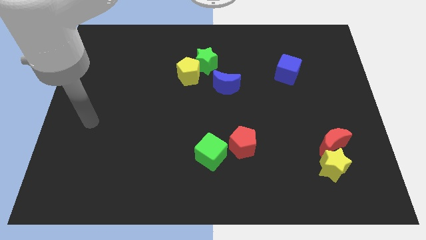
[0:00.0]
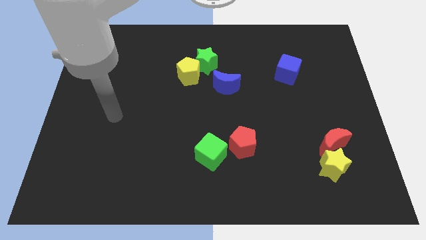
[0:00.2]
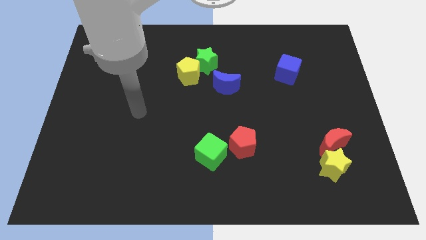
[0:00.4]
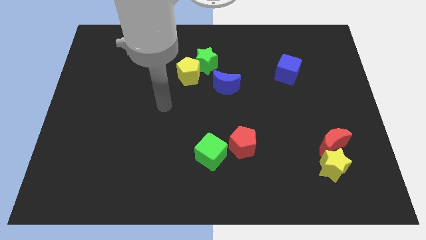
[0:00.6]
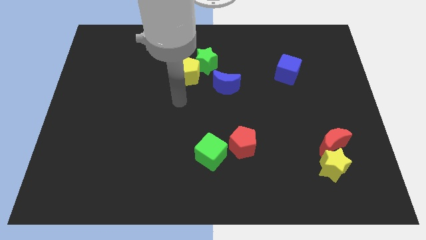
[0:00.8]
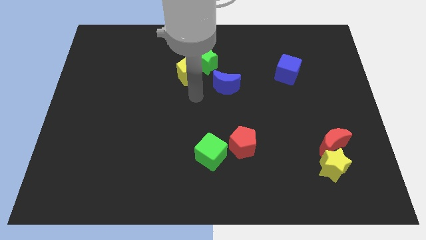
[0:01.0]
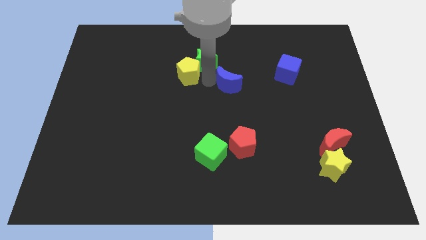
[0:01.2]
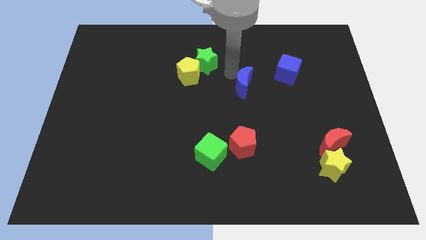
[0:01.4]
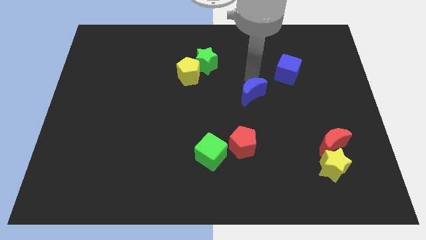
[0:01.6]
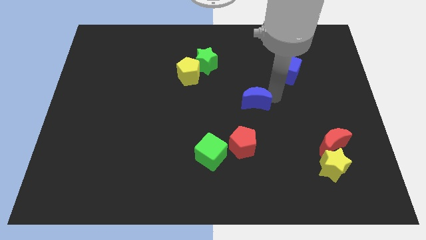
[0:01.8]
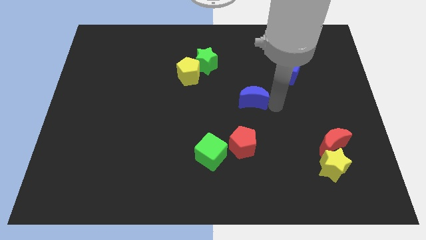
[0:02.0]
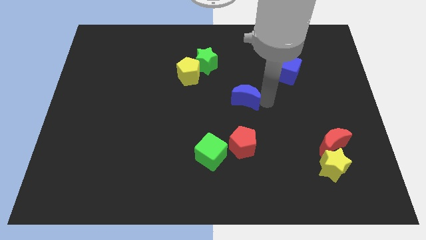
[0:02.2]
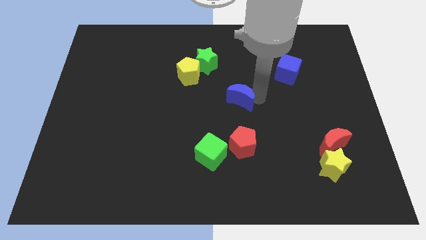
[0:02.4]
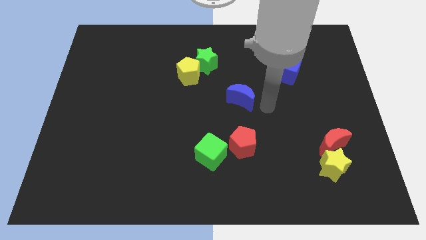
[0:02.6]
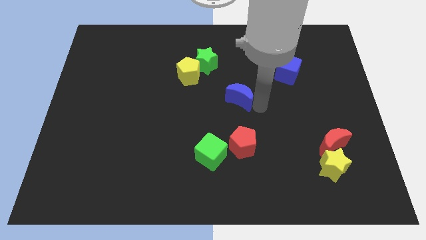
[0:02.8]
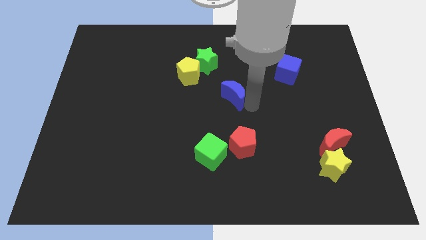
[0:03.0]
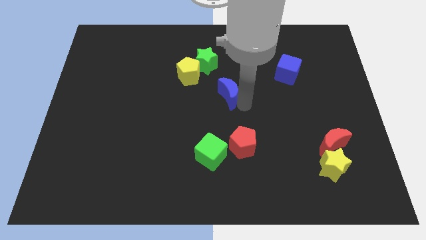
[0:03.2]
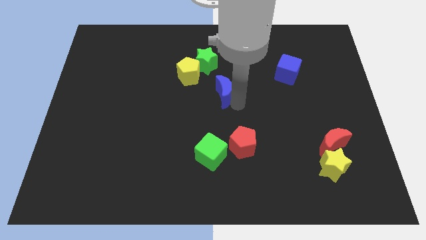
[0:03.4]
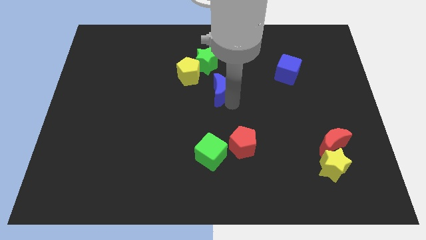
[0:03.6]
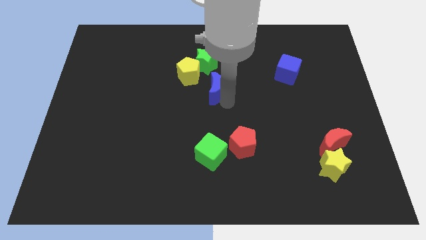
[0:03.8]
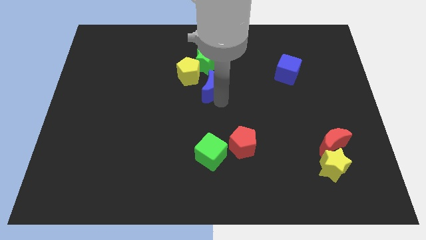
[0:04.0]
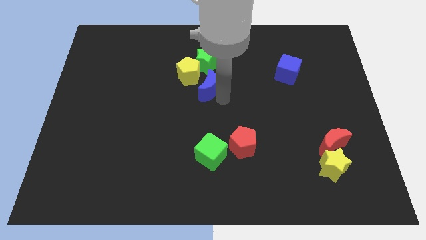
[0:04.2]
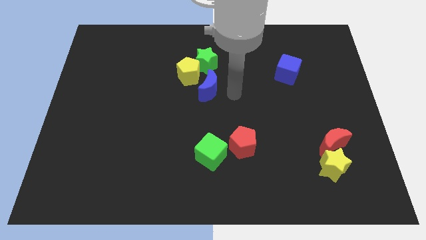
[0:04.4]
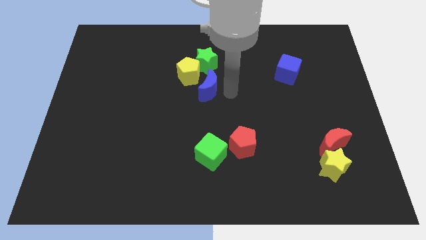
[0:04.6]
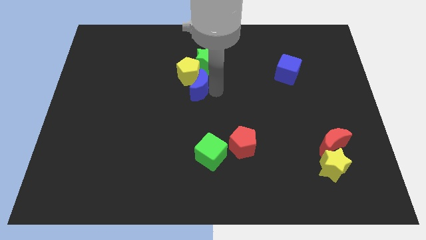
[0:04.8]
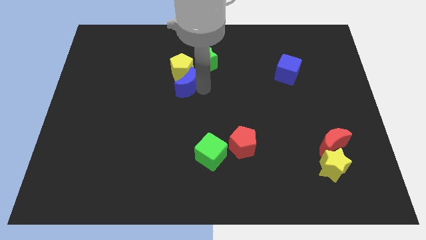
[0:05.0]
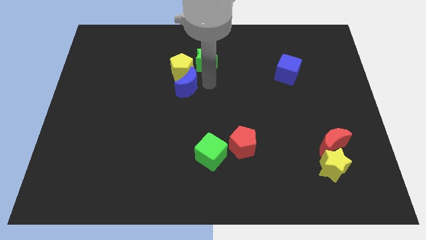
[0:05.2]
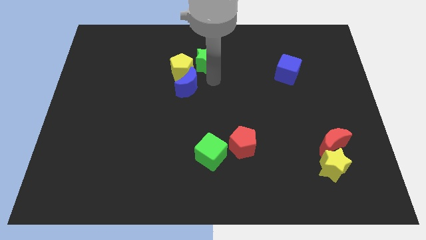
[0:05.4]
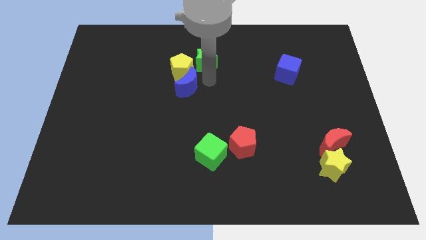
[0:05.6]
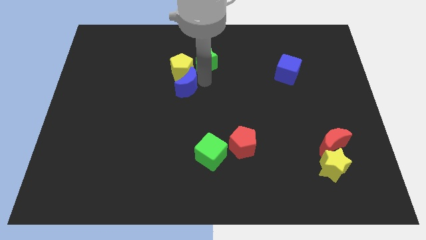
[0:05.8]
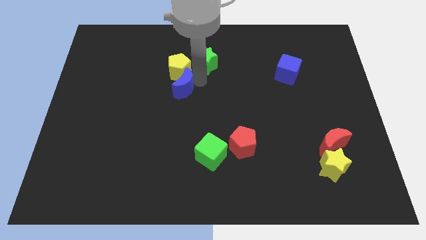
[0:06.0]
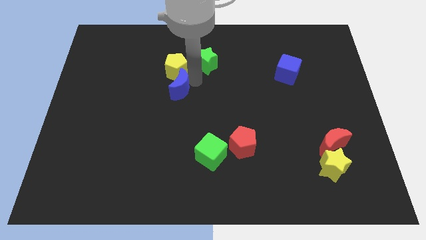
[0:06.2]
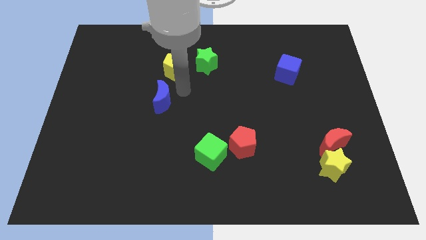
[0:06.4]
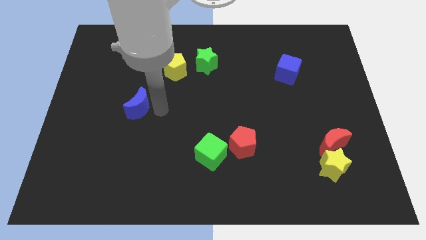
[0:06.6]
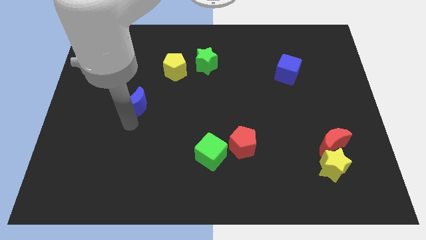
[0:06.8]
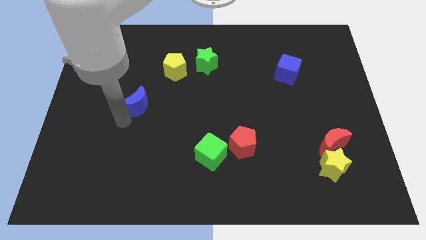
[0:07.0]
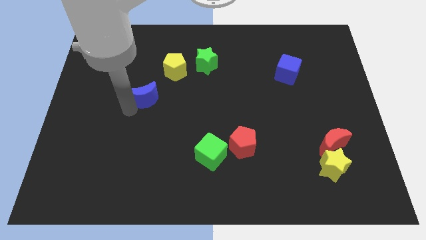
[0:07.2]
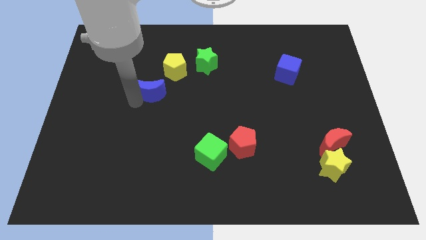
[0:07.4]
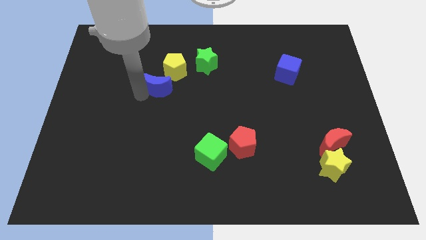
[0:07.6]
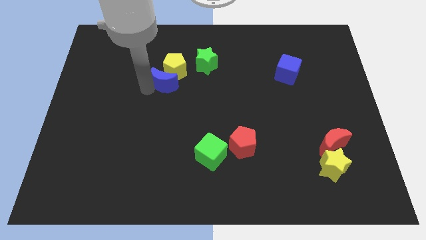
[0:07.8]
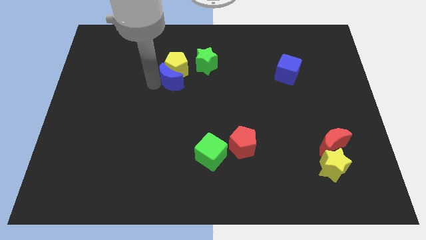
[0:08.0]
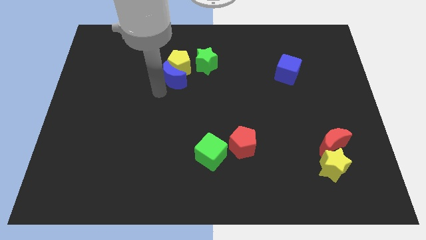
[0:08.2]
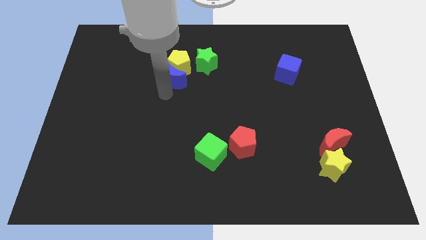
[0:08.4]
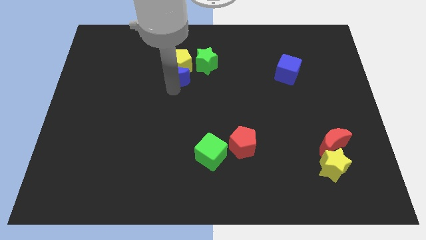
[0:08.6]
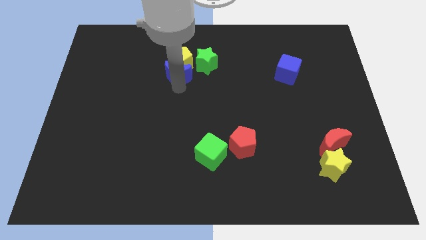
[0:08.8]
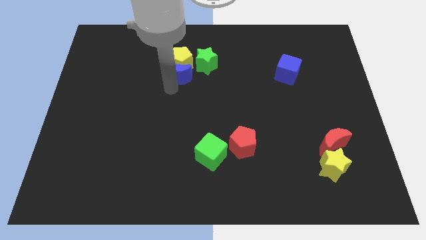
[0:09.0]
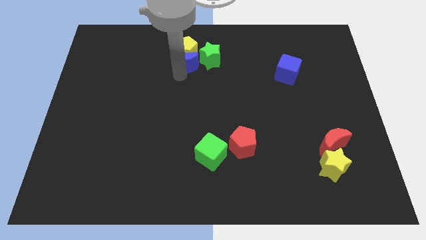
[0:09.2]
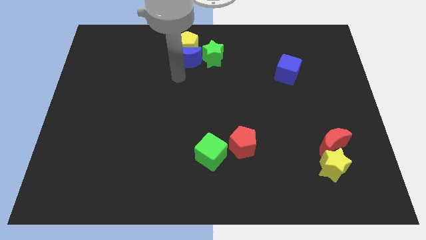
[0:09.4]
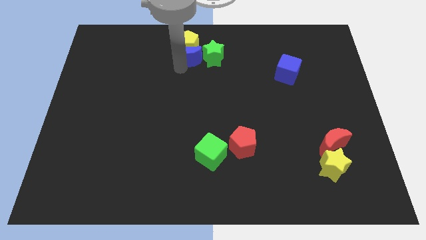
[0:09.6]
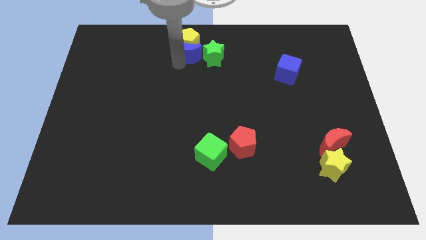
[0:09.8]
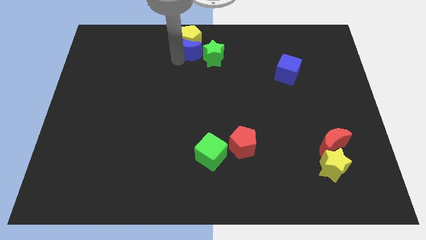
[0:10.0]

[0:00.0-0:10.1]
slide the blue moon to the towards your base
